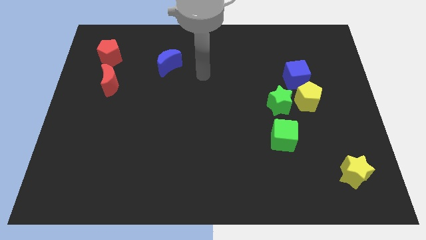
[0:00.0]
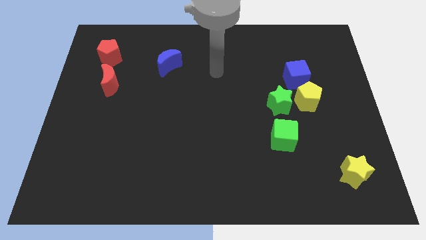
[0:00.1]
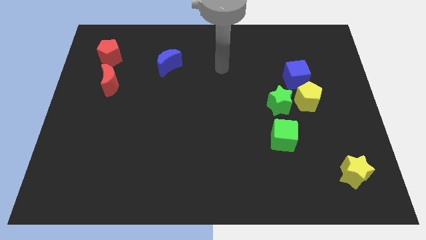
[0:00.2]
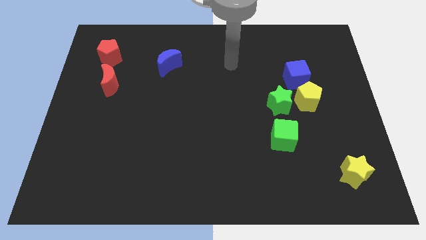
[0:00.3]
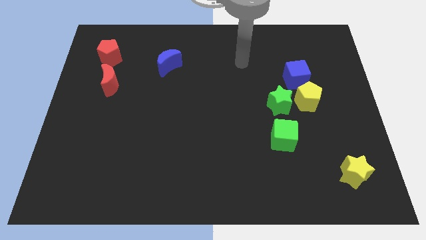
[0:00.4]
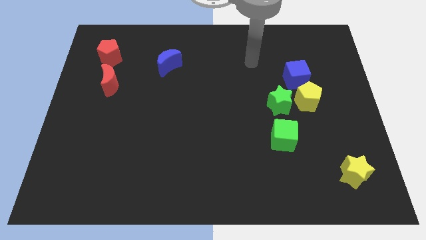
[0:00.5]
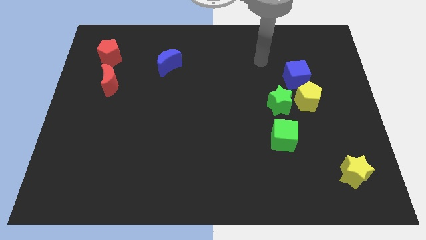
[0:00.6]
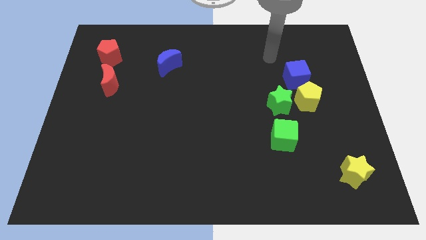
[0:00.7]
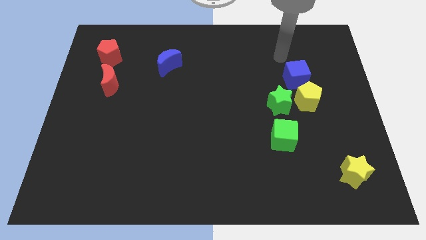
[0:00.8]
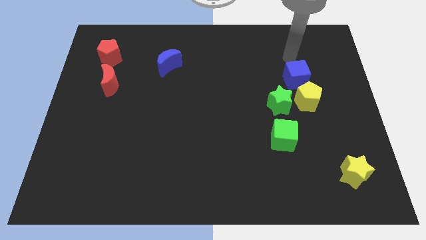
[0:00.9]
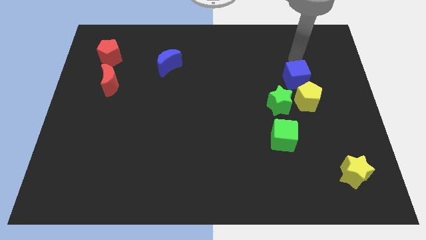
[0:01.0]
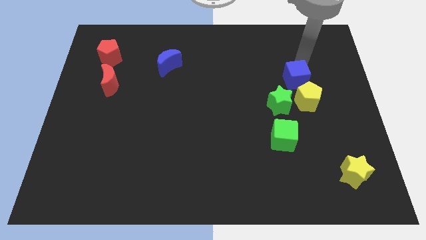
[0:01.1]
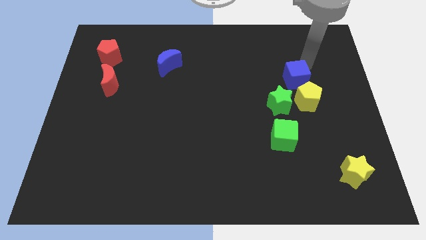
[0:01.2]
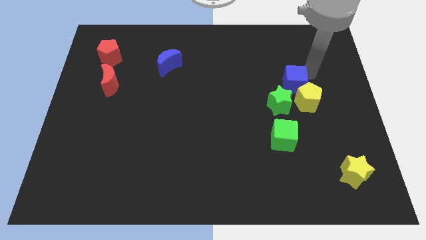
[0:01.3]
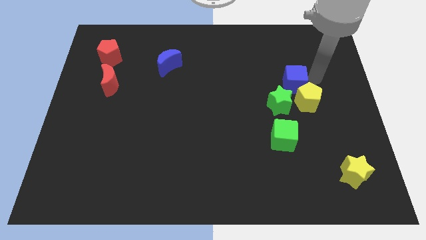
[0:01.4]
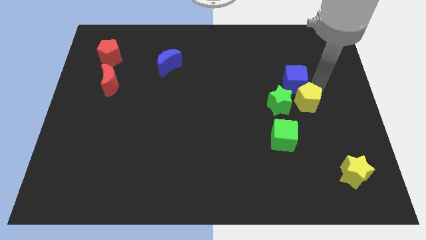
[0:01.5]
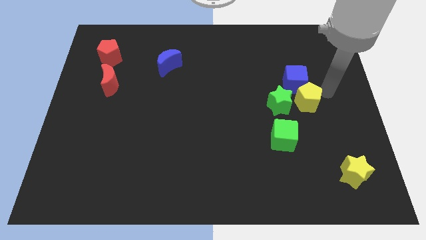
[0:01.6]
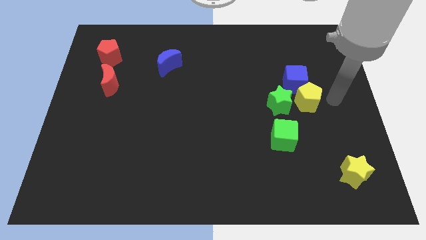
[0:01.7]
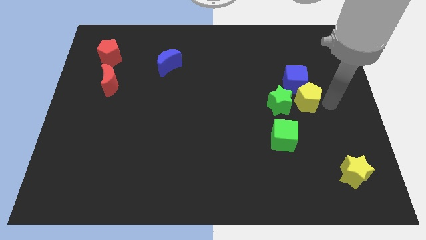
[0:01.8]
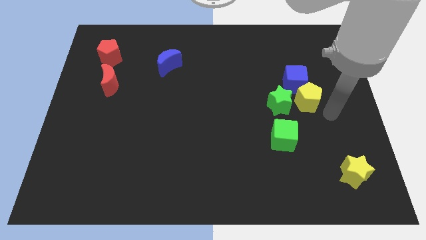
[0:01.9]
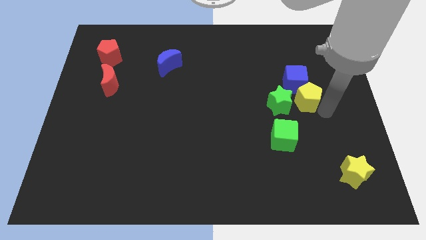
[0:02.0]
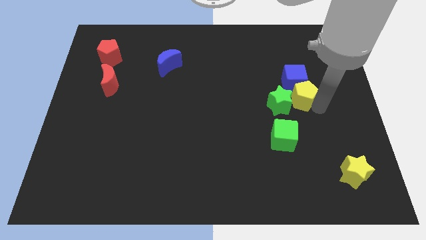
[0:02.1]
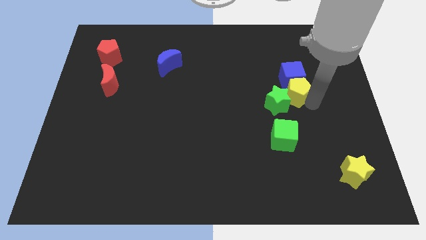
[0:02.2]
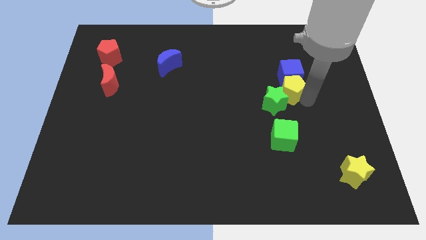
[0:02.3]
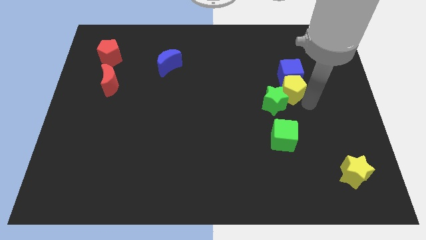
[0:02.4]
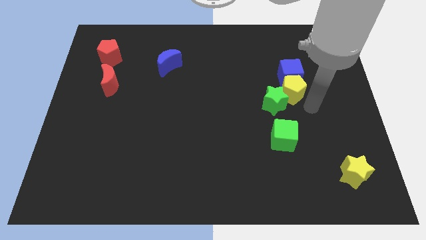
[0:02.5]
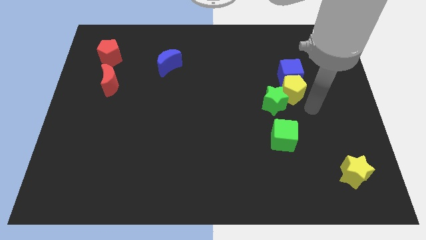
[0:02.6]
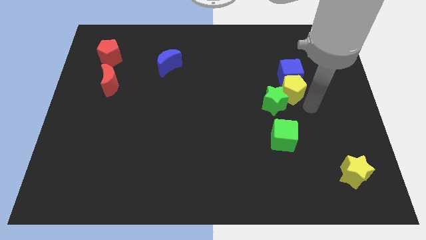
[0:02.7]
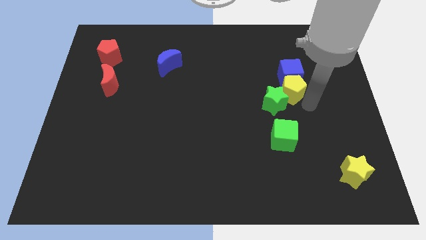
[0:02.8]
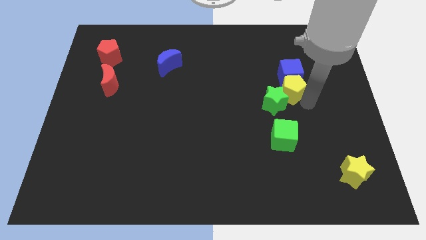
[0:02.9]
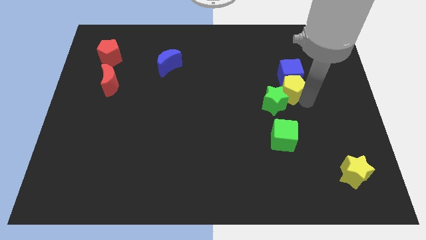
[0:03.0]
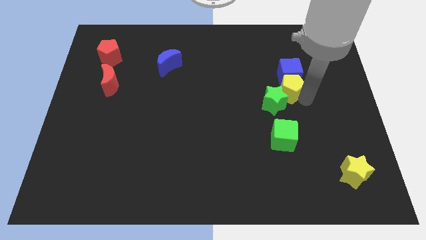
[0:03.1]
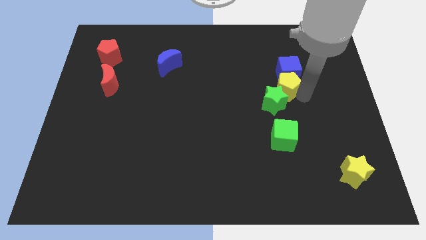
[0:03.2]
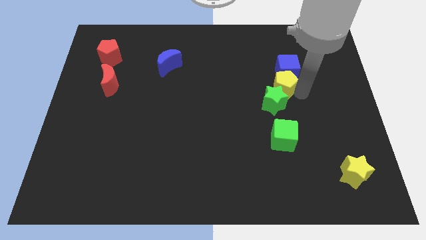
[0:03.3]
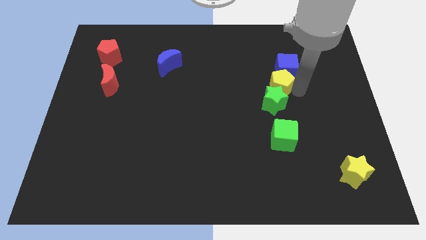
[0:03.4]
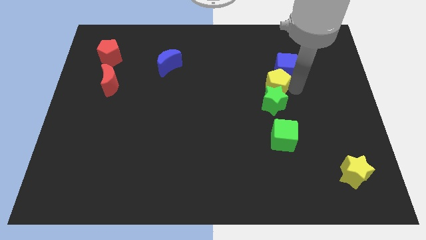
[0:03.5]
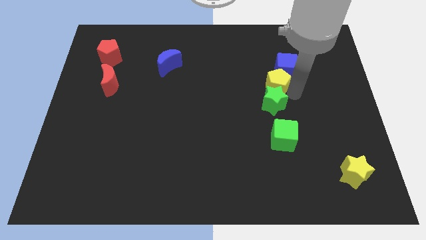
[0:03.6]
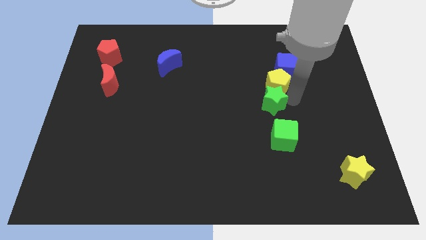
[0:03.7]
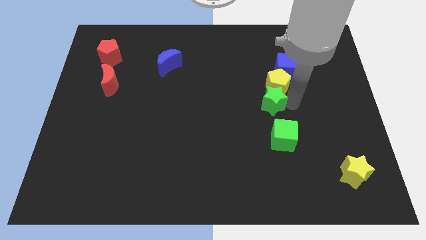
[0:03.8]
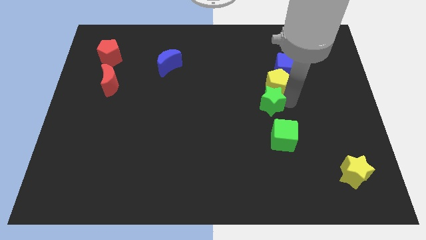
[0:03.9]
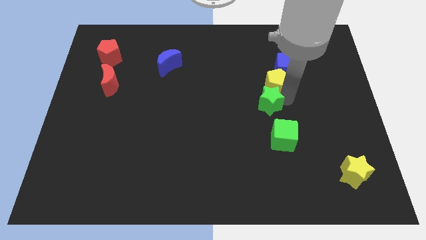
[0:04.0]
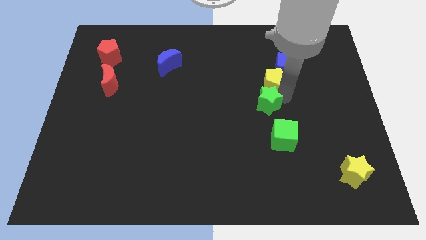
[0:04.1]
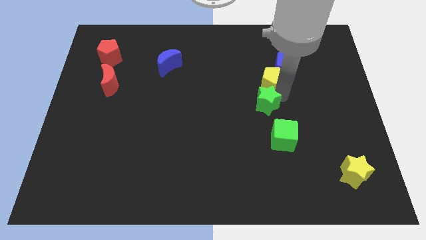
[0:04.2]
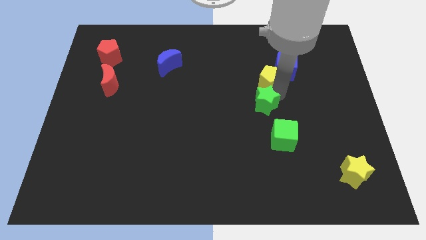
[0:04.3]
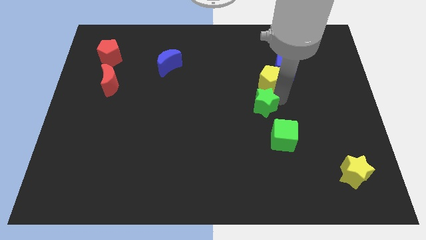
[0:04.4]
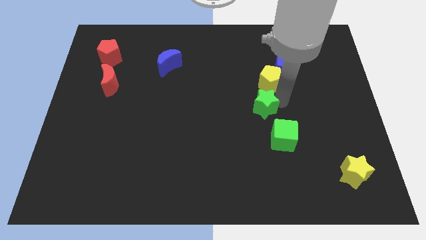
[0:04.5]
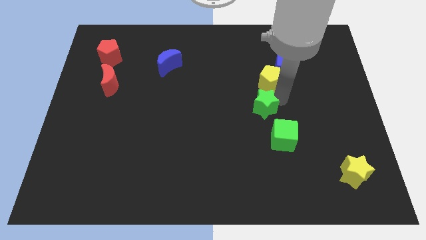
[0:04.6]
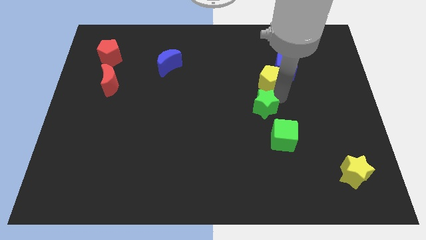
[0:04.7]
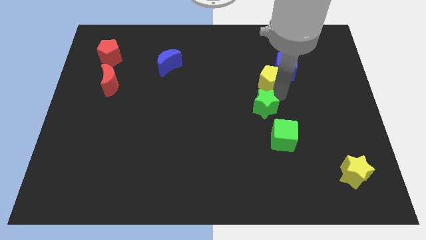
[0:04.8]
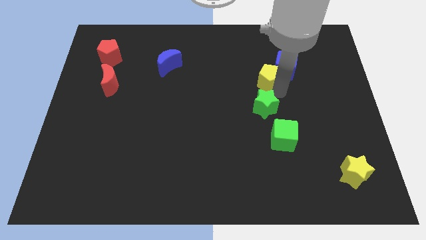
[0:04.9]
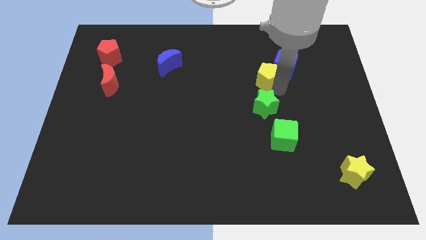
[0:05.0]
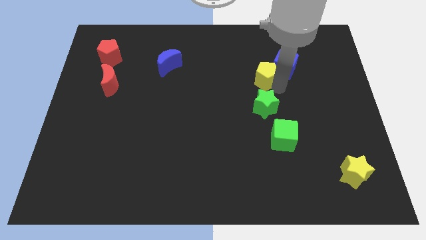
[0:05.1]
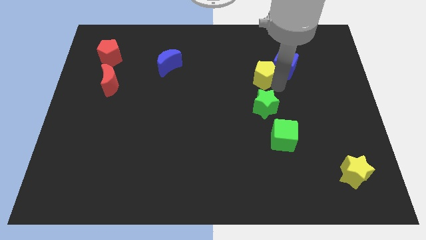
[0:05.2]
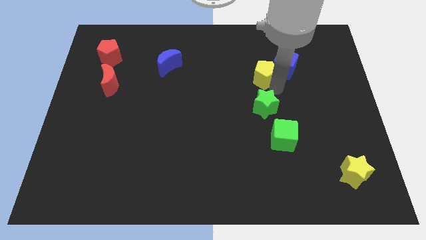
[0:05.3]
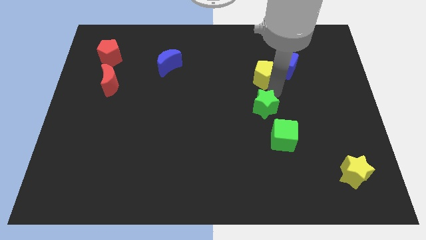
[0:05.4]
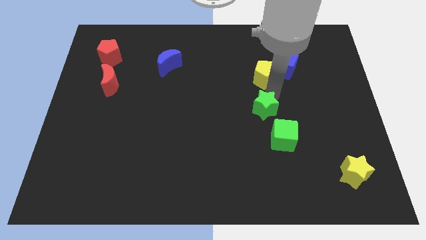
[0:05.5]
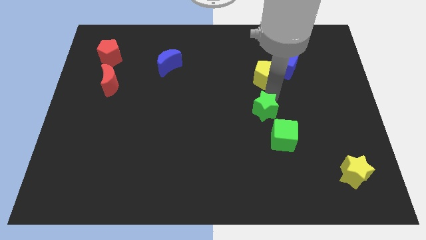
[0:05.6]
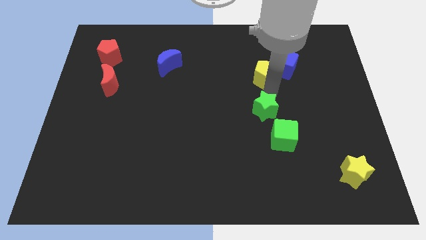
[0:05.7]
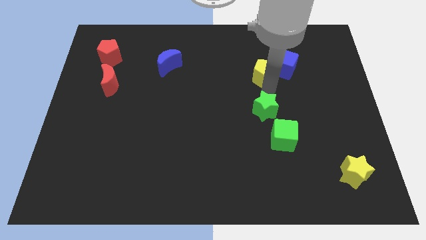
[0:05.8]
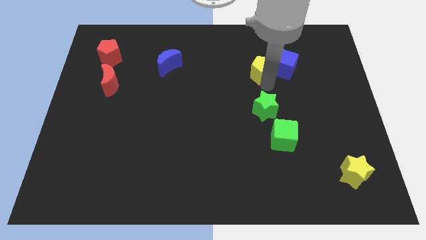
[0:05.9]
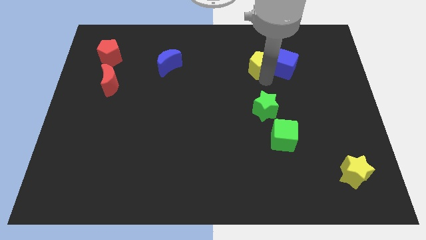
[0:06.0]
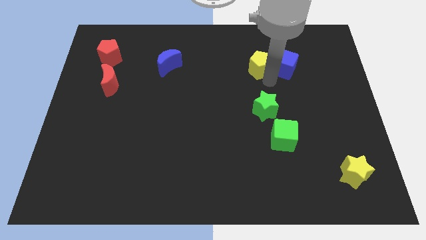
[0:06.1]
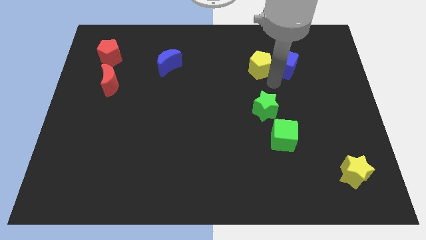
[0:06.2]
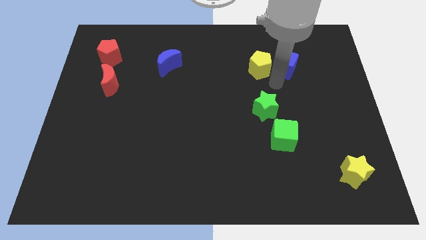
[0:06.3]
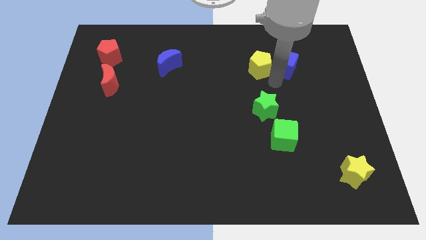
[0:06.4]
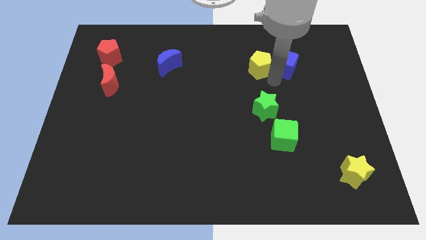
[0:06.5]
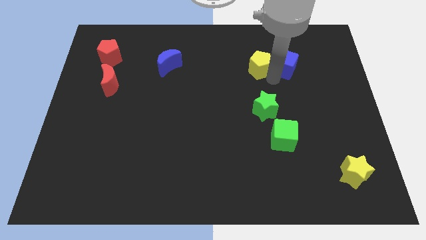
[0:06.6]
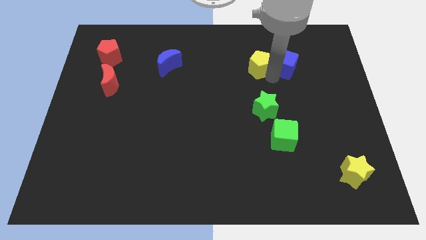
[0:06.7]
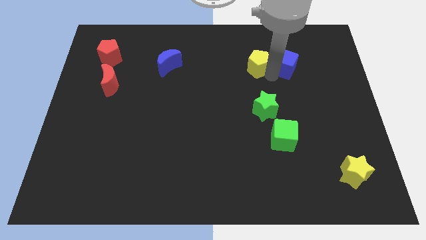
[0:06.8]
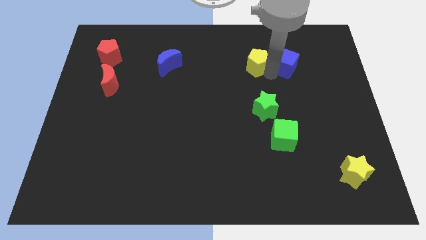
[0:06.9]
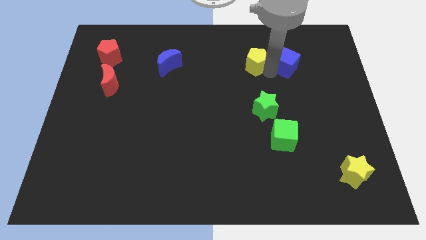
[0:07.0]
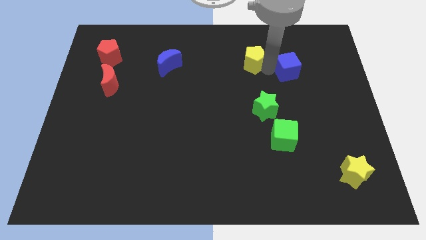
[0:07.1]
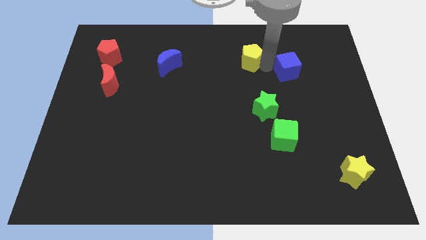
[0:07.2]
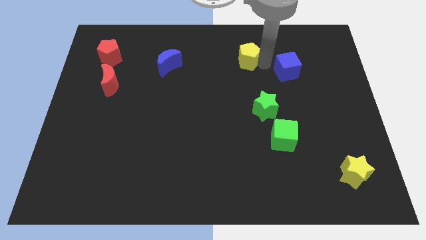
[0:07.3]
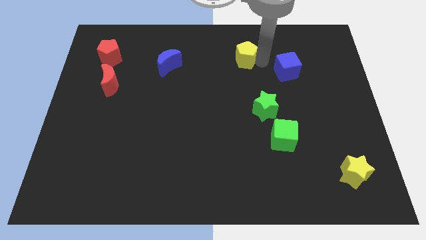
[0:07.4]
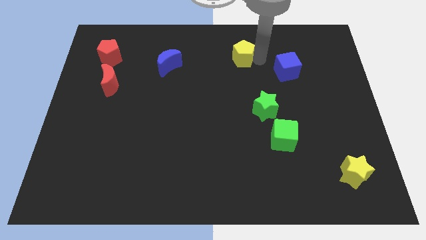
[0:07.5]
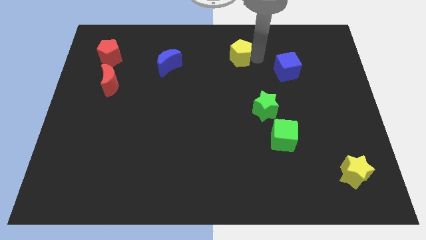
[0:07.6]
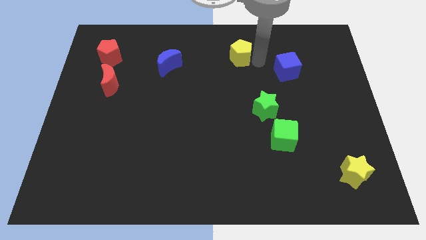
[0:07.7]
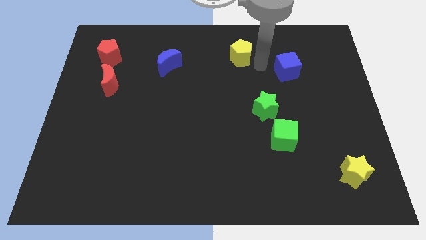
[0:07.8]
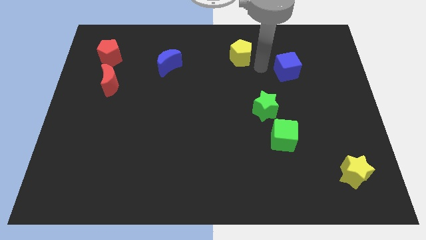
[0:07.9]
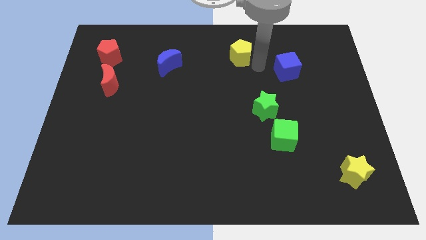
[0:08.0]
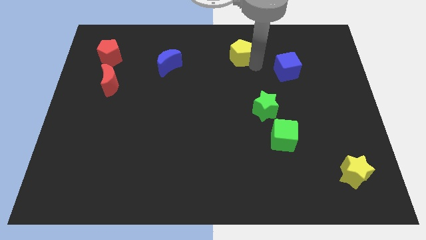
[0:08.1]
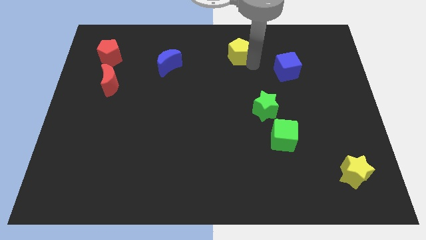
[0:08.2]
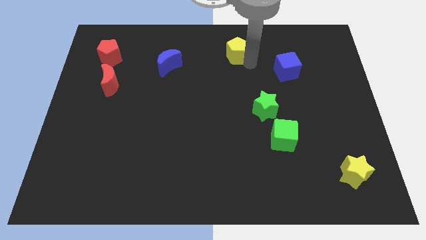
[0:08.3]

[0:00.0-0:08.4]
move the yellow pentagon to the top
